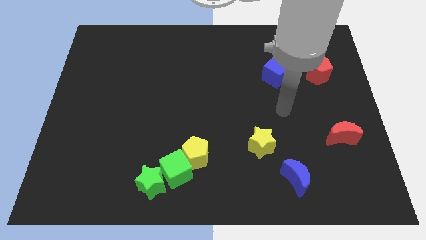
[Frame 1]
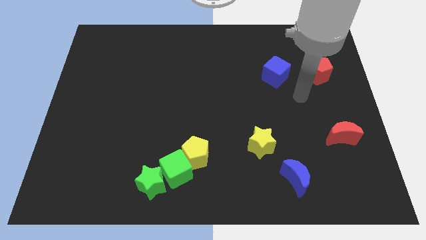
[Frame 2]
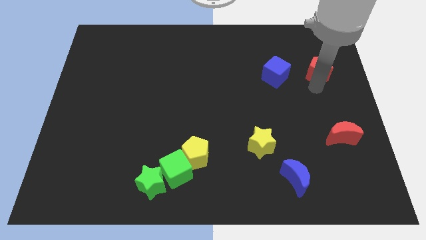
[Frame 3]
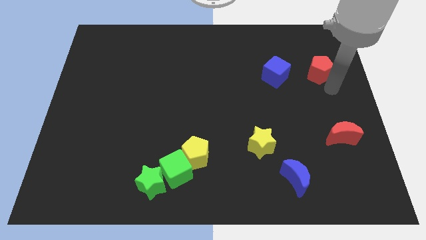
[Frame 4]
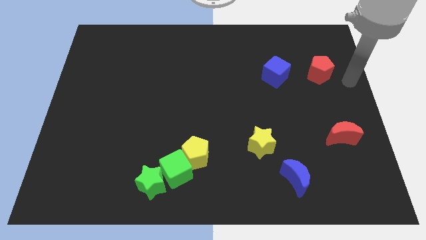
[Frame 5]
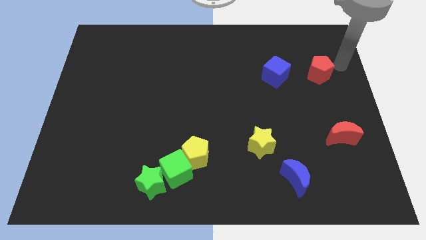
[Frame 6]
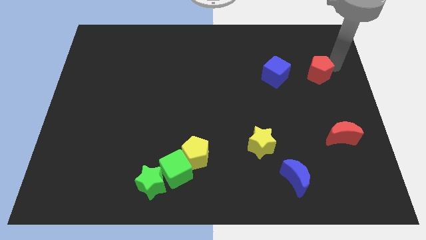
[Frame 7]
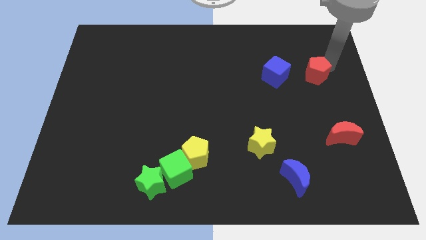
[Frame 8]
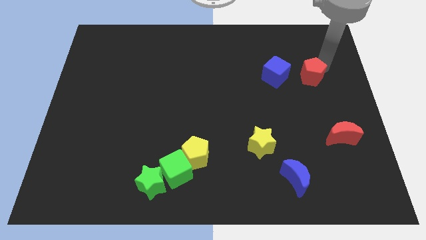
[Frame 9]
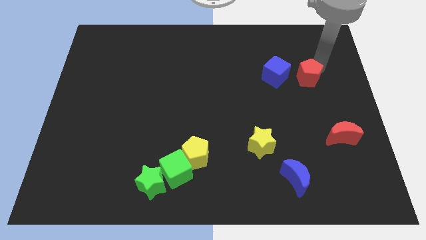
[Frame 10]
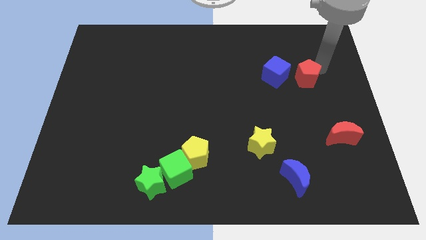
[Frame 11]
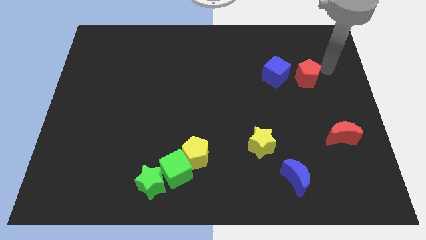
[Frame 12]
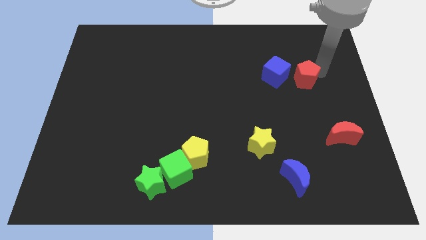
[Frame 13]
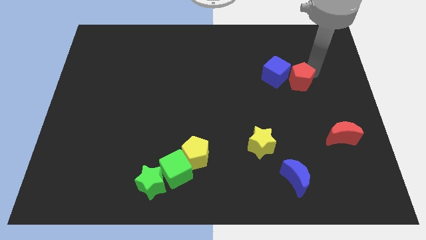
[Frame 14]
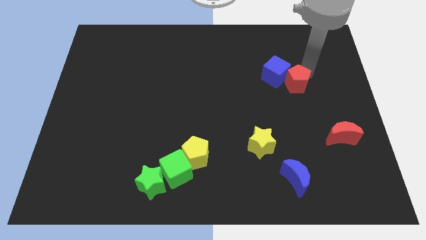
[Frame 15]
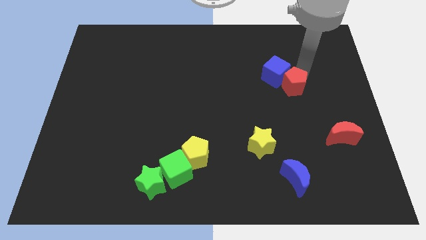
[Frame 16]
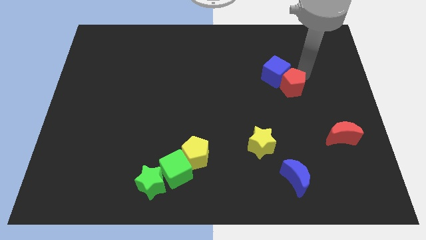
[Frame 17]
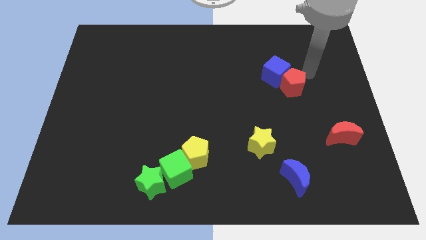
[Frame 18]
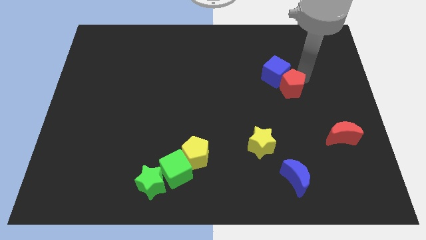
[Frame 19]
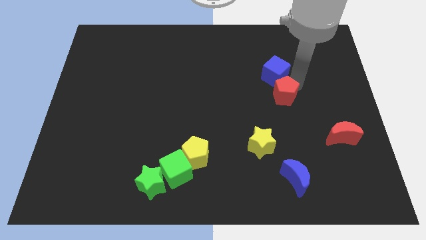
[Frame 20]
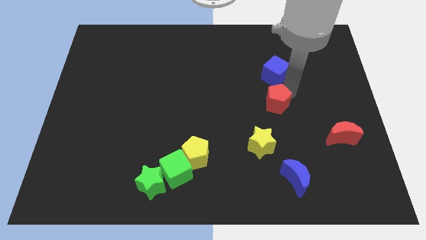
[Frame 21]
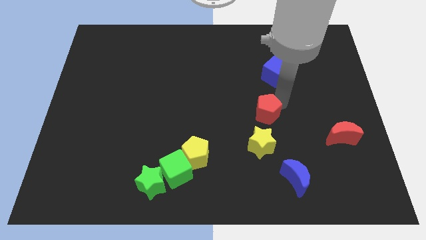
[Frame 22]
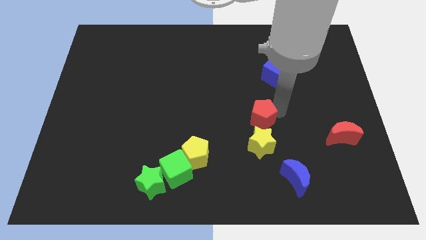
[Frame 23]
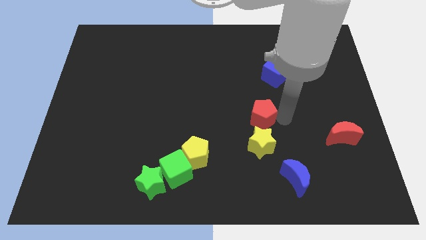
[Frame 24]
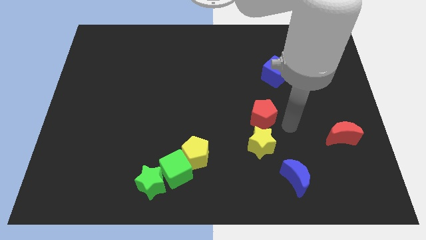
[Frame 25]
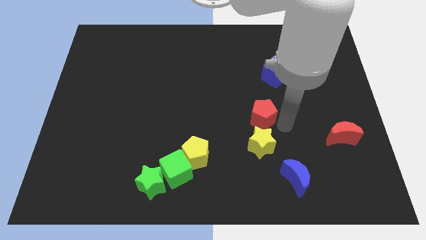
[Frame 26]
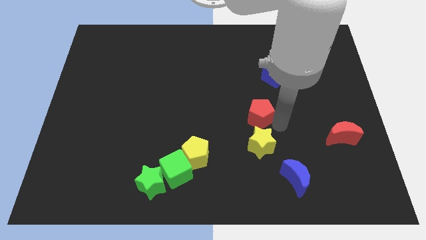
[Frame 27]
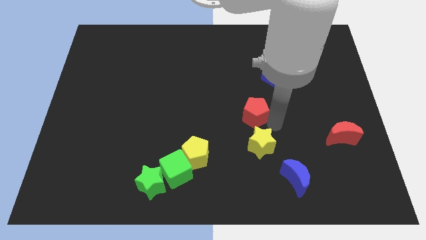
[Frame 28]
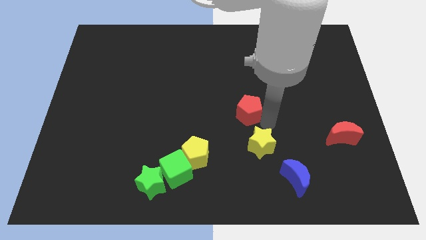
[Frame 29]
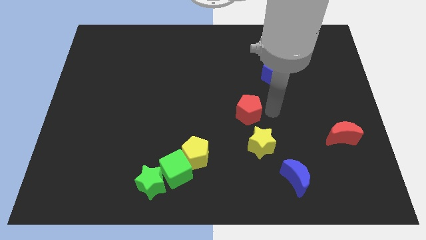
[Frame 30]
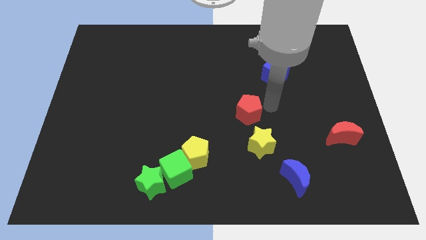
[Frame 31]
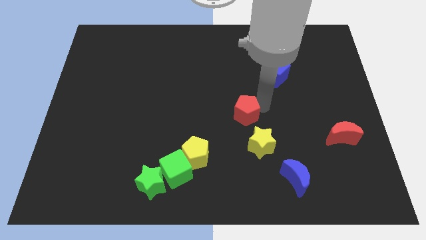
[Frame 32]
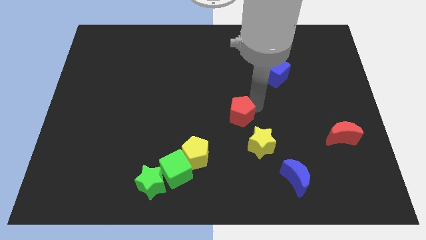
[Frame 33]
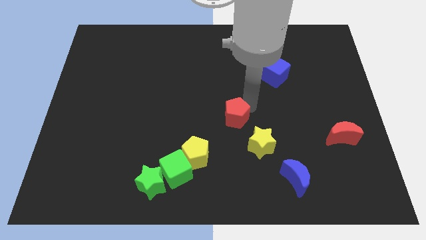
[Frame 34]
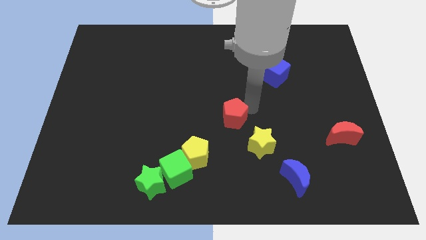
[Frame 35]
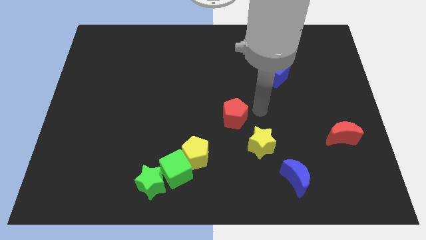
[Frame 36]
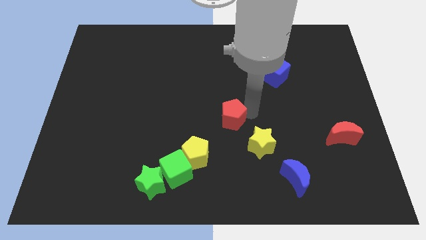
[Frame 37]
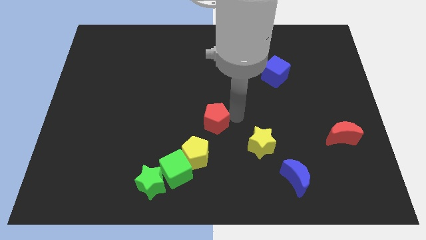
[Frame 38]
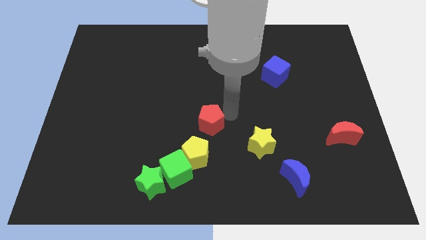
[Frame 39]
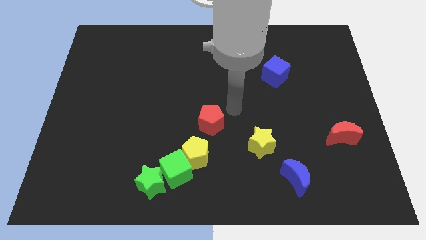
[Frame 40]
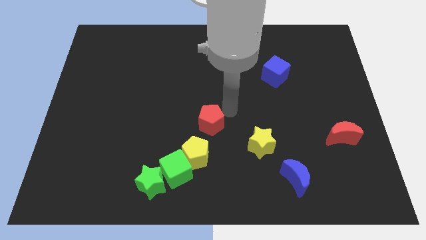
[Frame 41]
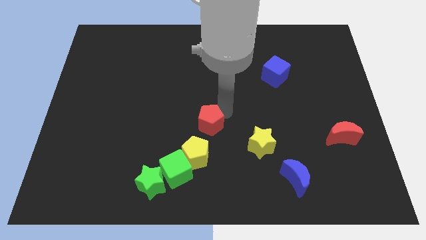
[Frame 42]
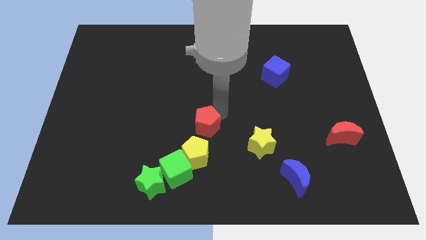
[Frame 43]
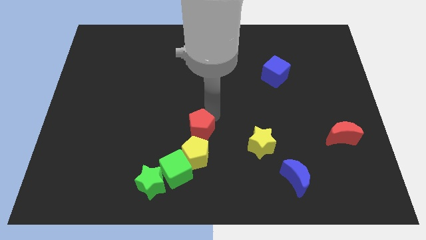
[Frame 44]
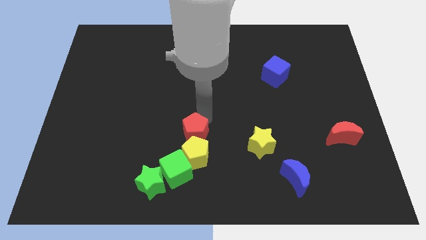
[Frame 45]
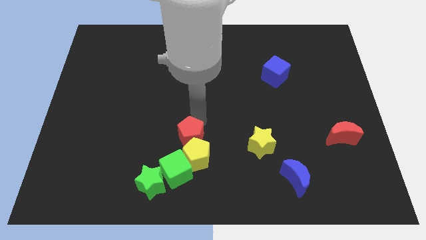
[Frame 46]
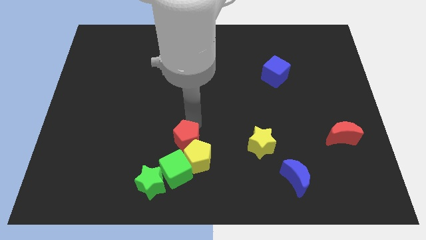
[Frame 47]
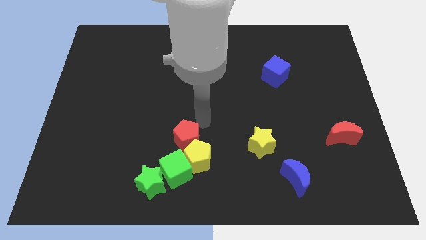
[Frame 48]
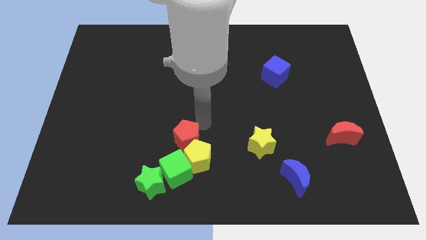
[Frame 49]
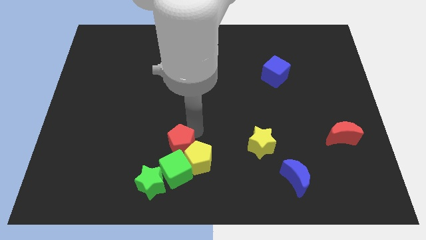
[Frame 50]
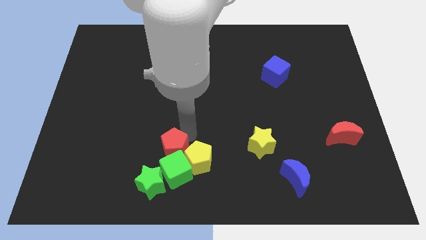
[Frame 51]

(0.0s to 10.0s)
put the red pentagon to the green cube

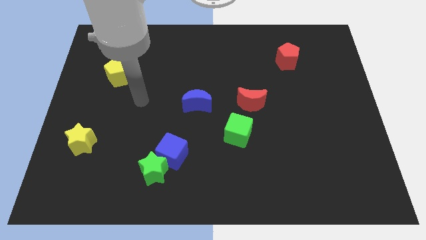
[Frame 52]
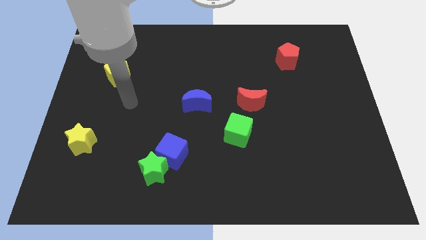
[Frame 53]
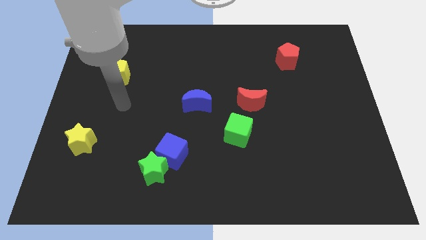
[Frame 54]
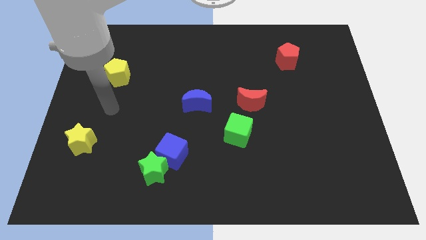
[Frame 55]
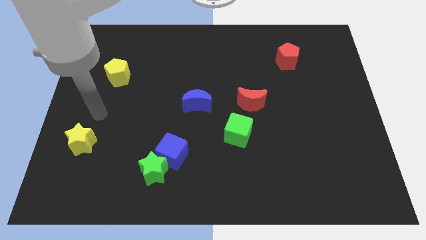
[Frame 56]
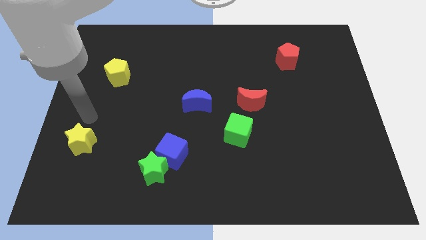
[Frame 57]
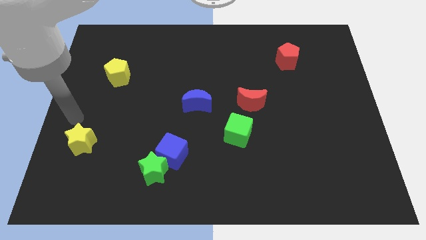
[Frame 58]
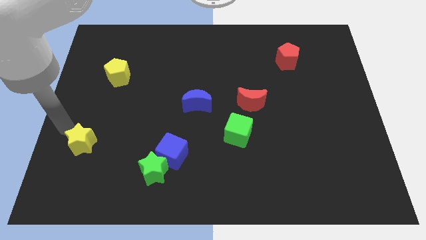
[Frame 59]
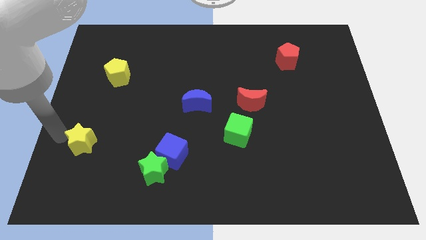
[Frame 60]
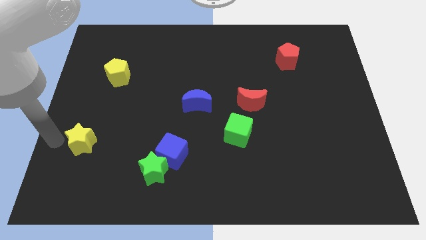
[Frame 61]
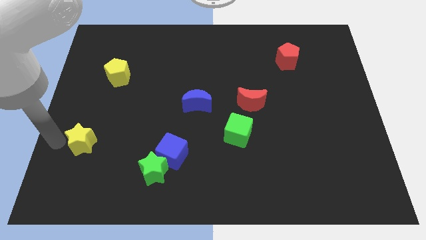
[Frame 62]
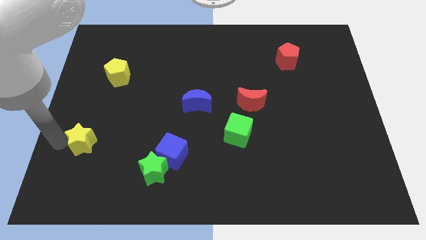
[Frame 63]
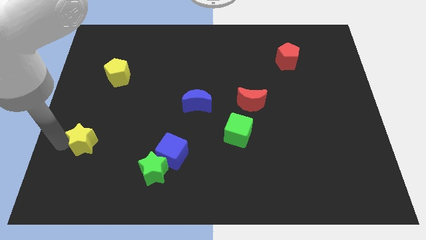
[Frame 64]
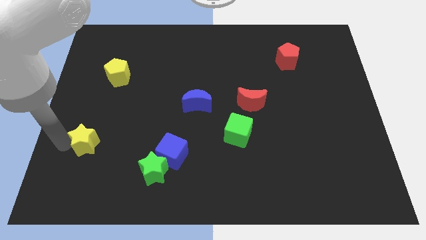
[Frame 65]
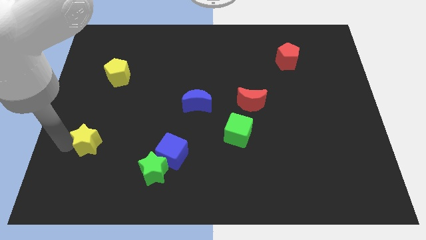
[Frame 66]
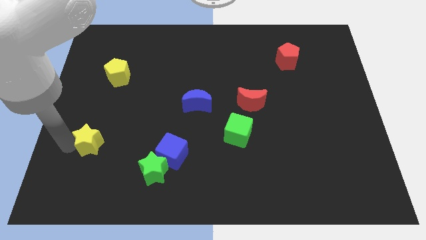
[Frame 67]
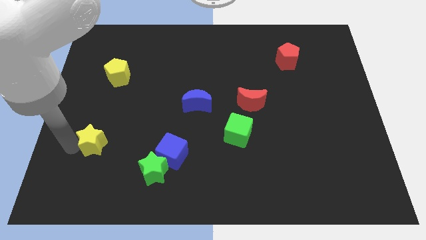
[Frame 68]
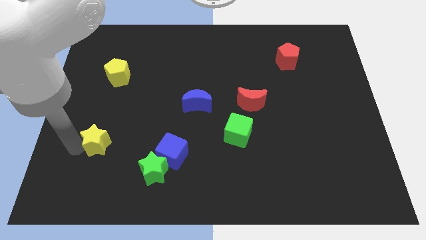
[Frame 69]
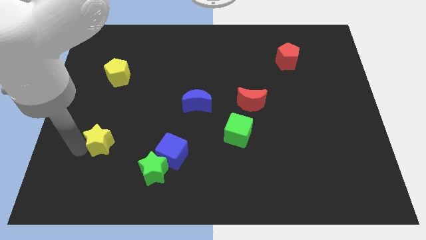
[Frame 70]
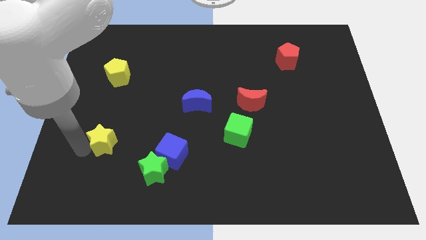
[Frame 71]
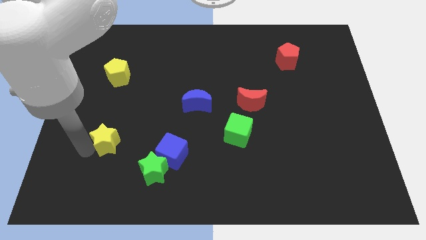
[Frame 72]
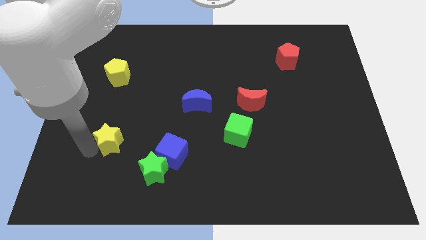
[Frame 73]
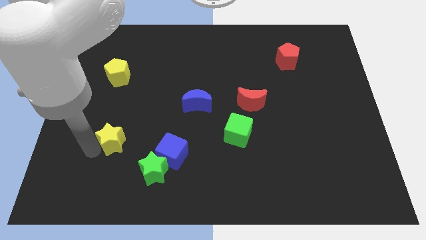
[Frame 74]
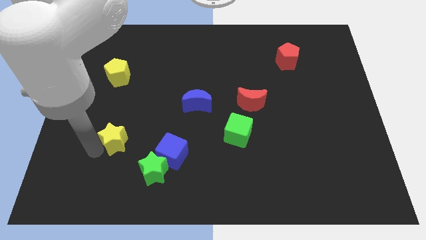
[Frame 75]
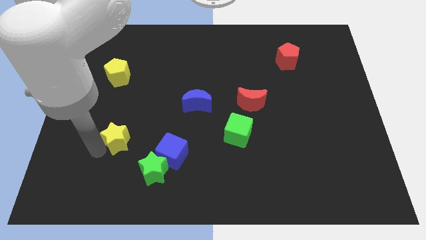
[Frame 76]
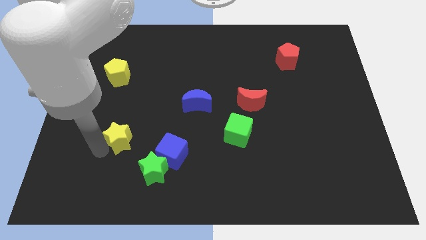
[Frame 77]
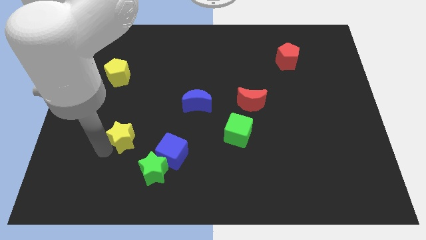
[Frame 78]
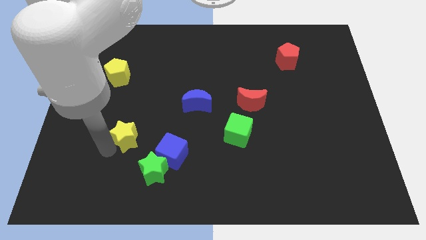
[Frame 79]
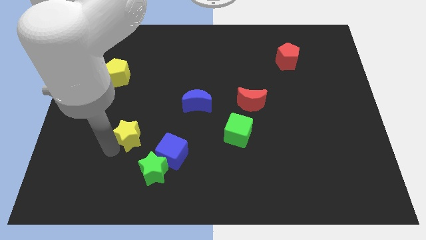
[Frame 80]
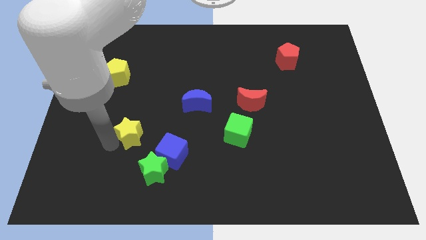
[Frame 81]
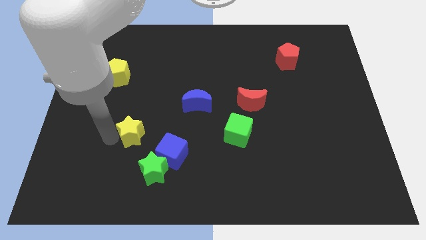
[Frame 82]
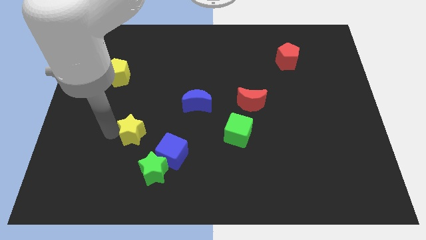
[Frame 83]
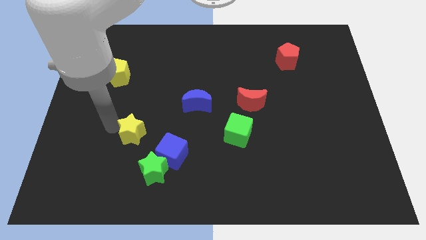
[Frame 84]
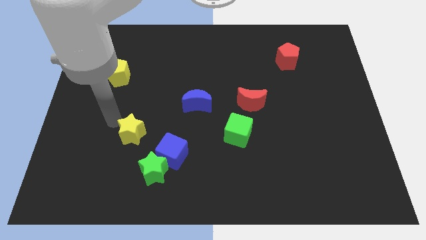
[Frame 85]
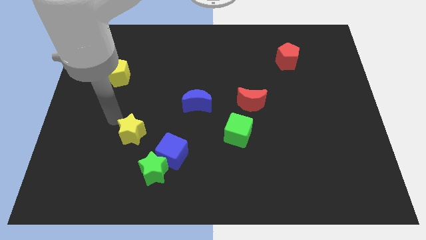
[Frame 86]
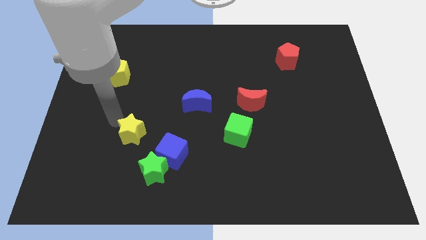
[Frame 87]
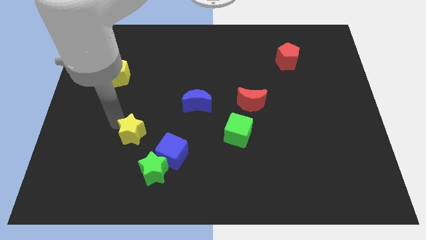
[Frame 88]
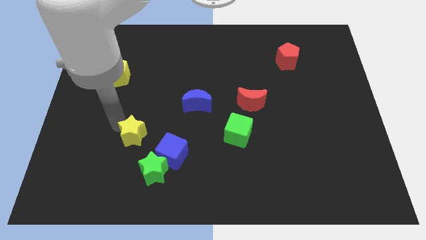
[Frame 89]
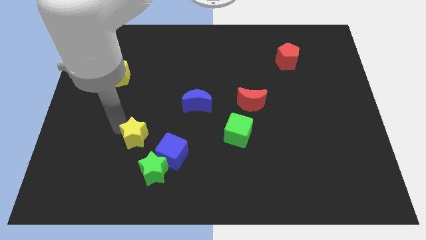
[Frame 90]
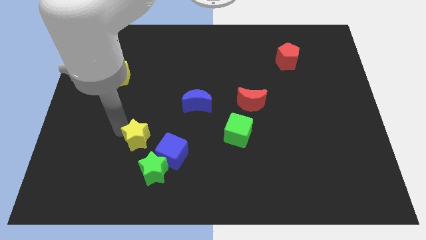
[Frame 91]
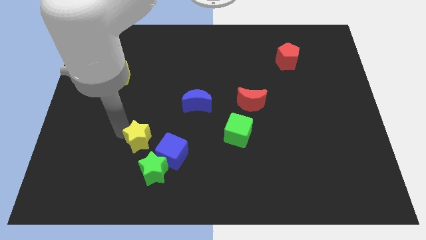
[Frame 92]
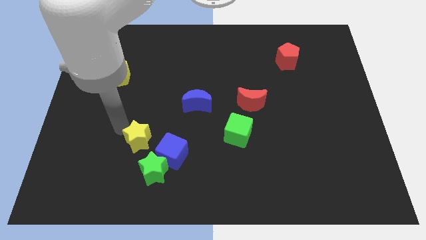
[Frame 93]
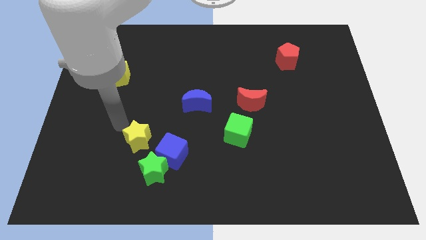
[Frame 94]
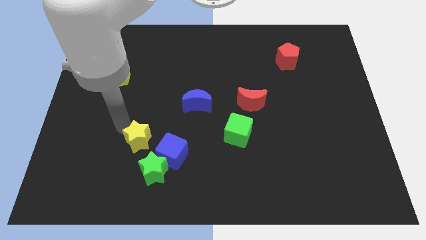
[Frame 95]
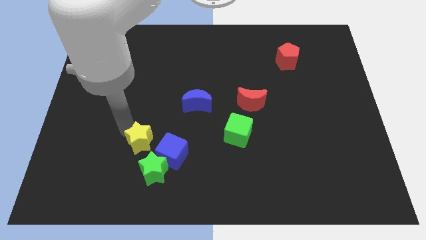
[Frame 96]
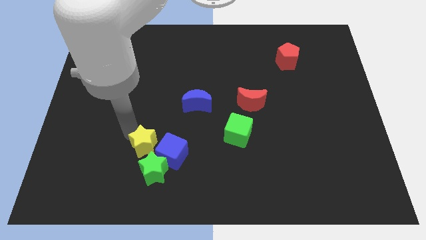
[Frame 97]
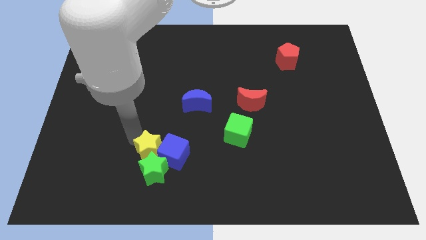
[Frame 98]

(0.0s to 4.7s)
push the yellow star next to the blue cube
